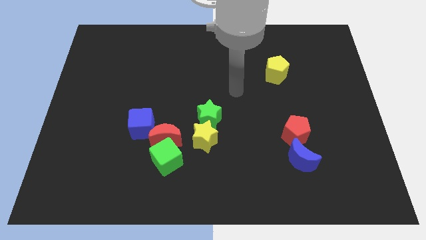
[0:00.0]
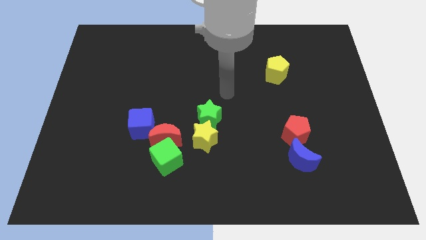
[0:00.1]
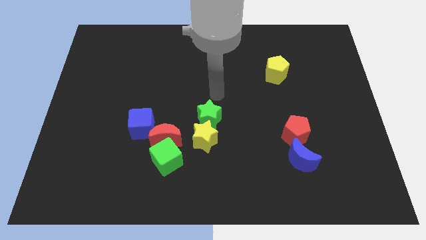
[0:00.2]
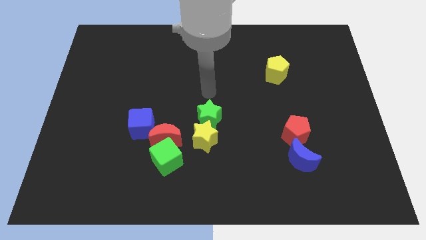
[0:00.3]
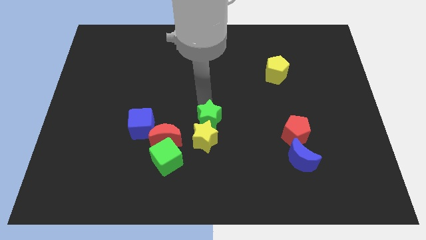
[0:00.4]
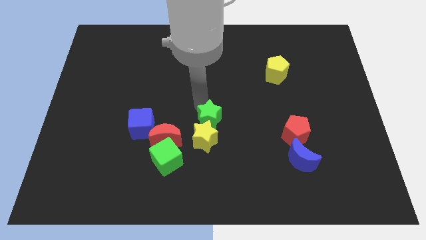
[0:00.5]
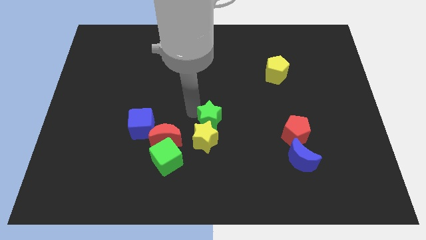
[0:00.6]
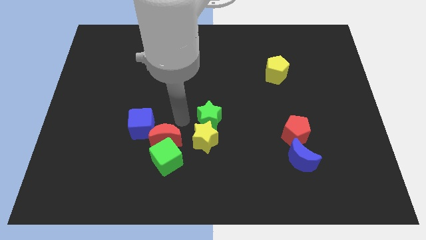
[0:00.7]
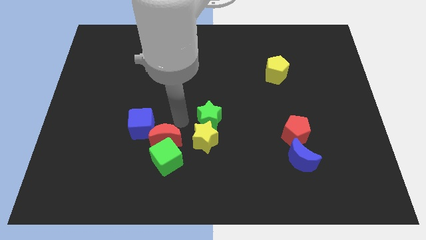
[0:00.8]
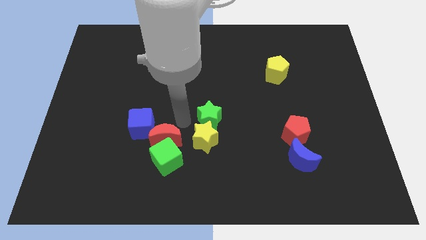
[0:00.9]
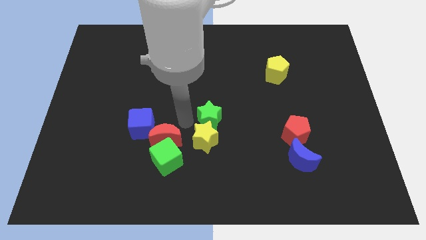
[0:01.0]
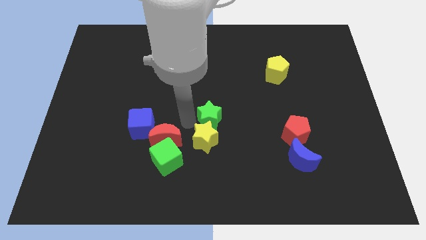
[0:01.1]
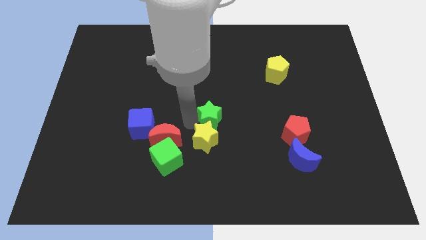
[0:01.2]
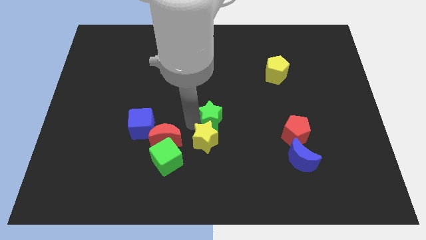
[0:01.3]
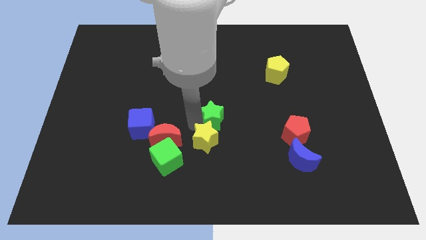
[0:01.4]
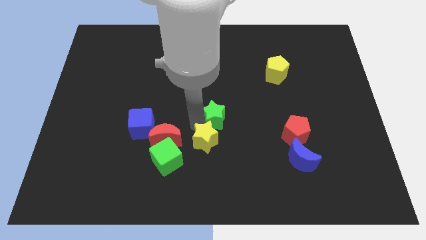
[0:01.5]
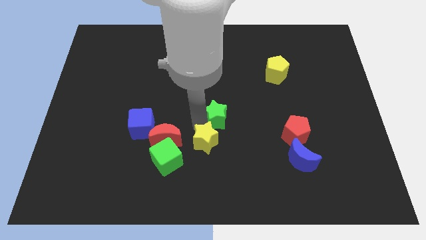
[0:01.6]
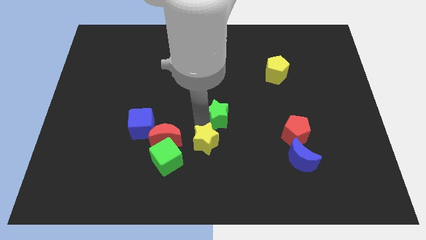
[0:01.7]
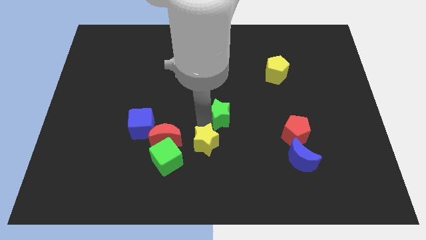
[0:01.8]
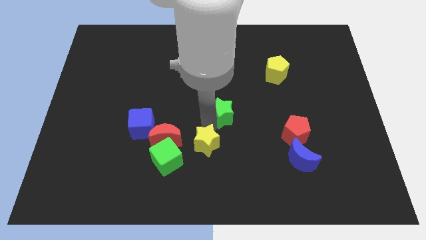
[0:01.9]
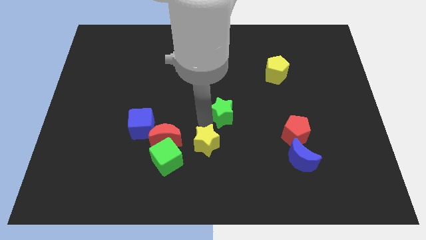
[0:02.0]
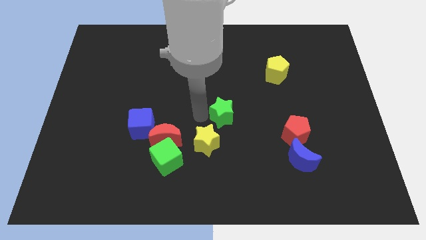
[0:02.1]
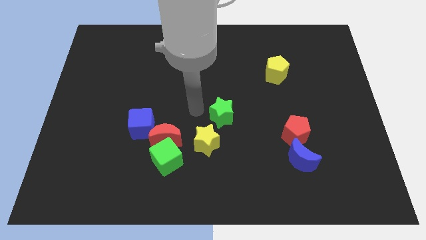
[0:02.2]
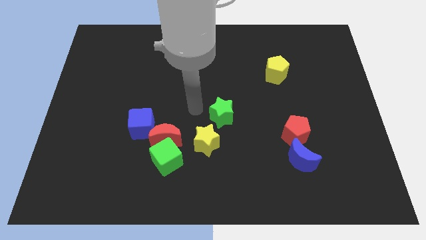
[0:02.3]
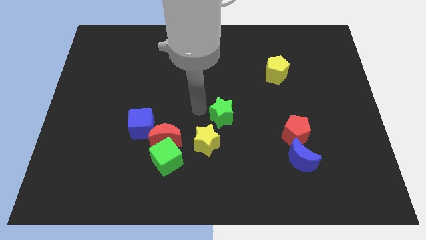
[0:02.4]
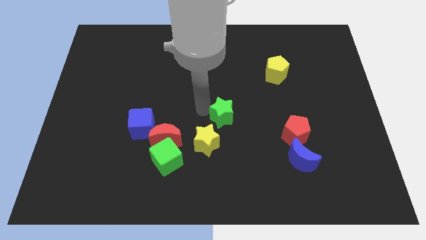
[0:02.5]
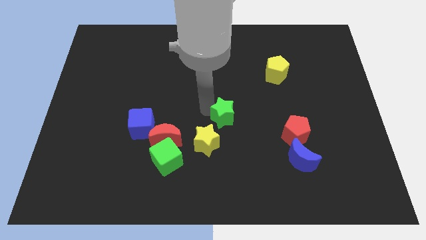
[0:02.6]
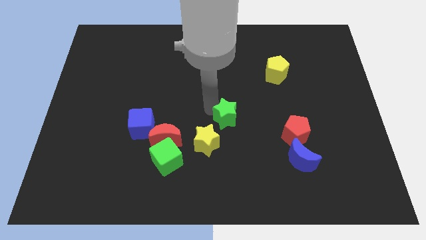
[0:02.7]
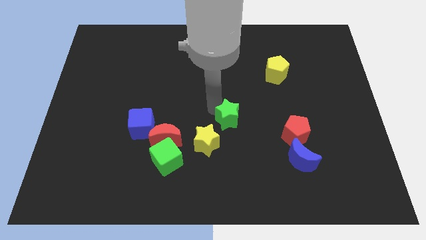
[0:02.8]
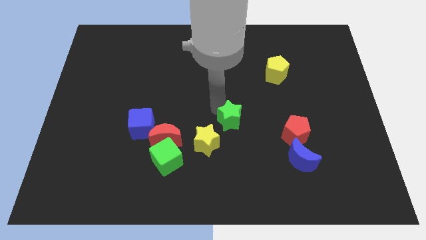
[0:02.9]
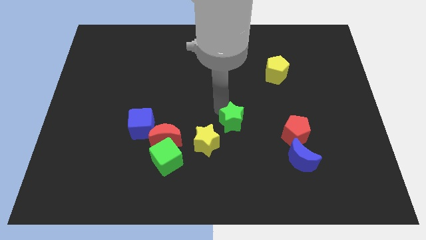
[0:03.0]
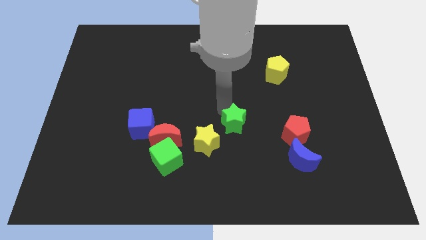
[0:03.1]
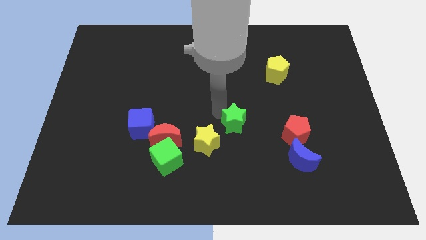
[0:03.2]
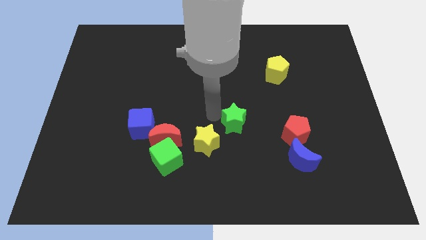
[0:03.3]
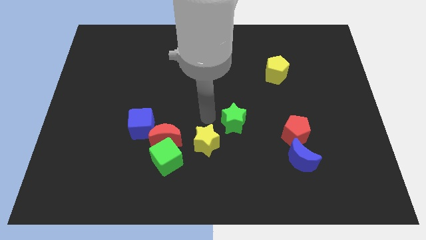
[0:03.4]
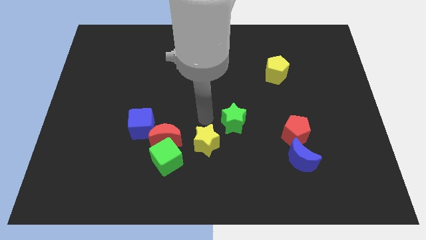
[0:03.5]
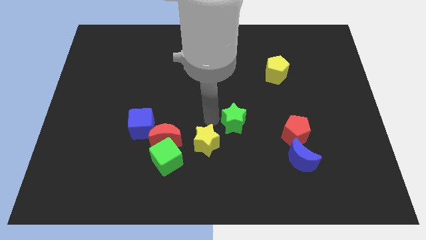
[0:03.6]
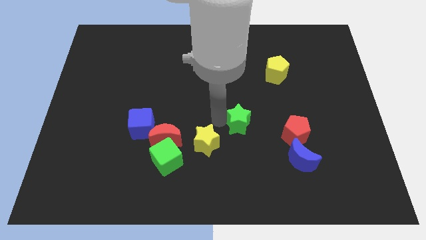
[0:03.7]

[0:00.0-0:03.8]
push the green star a little right

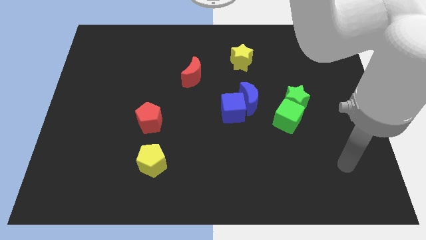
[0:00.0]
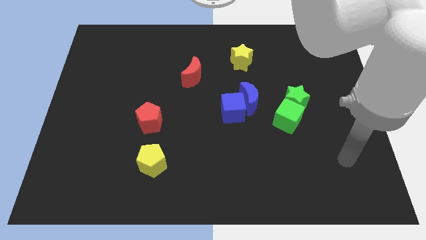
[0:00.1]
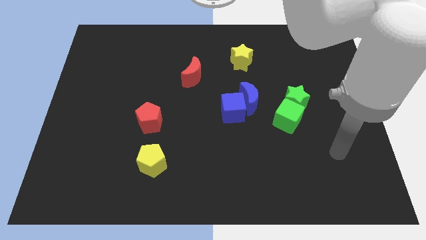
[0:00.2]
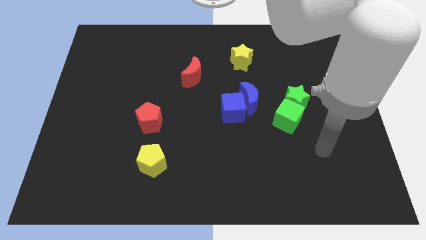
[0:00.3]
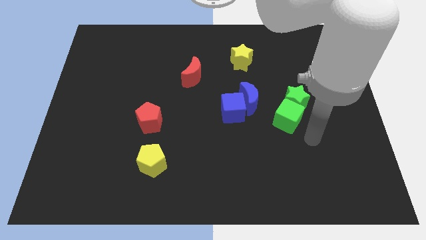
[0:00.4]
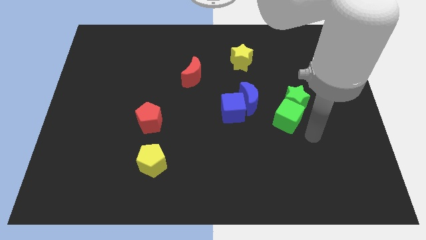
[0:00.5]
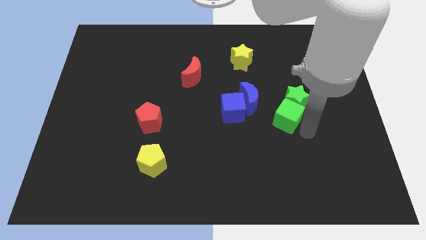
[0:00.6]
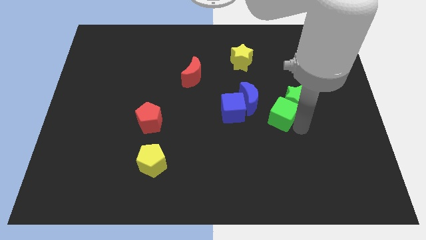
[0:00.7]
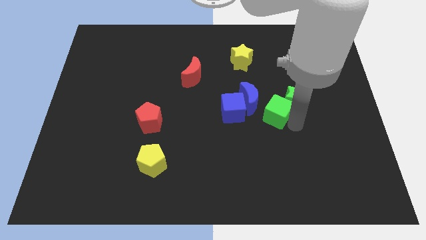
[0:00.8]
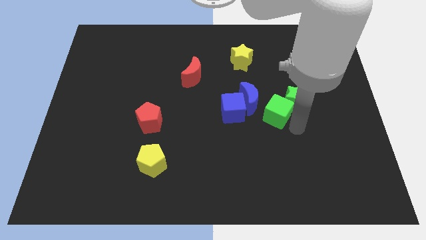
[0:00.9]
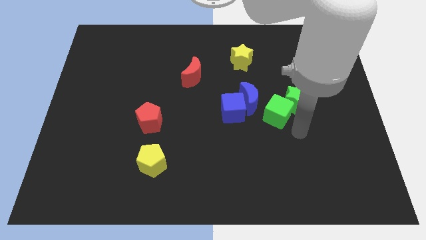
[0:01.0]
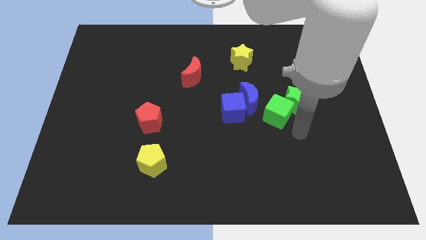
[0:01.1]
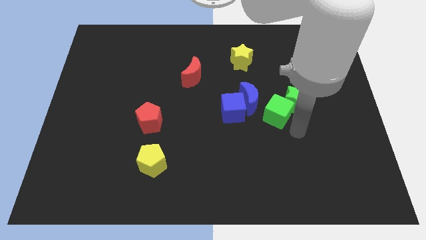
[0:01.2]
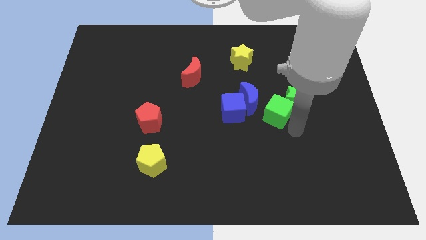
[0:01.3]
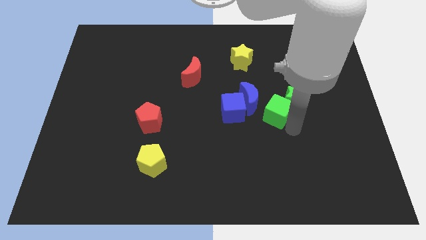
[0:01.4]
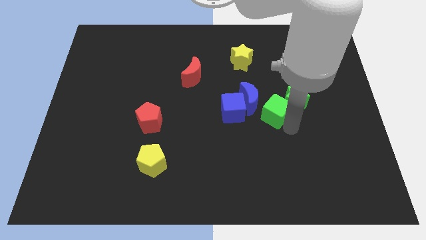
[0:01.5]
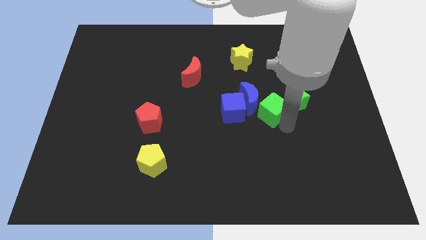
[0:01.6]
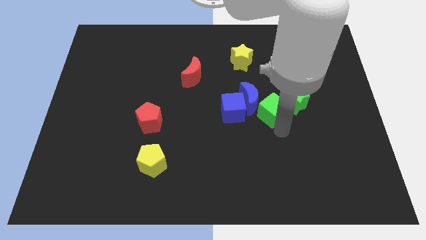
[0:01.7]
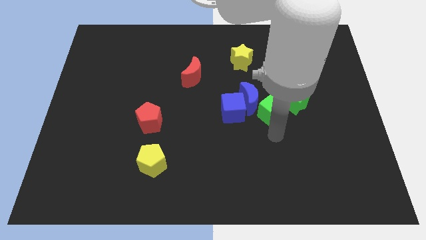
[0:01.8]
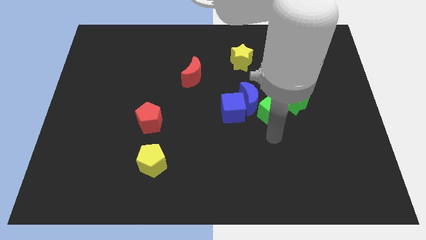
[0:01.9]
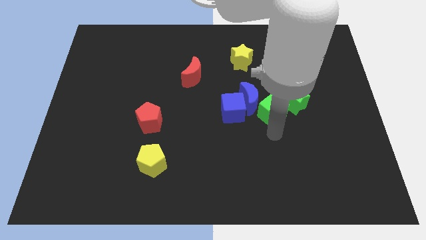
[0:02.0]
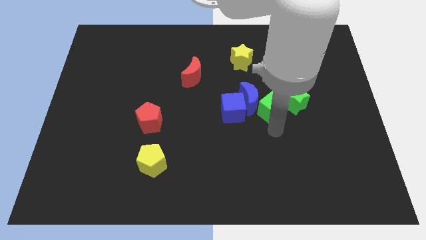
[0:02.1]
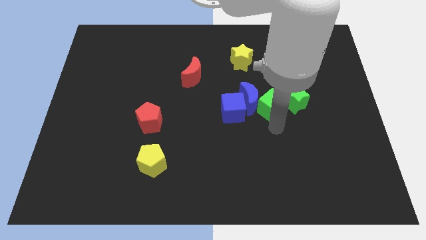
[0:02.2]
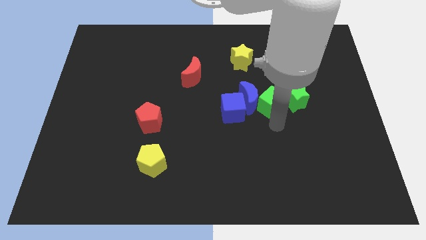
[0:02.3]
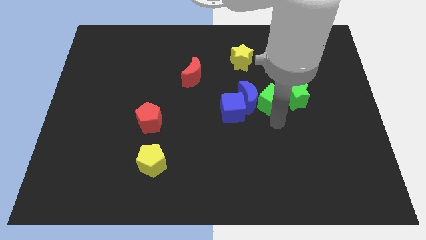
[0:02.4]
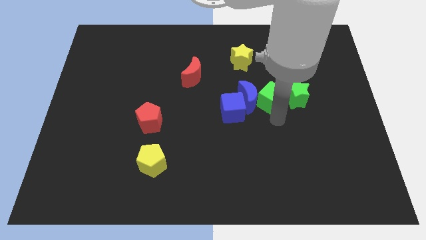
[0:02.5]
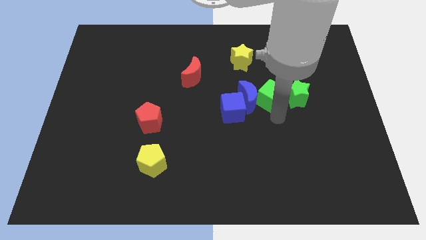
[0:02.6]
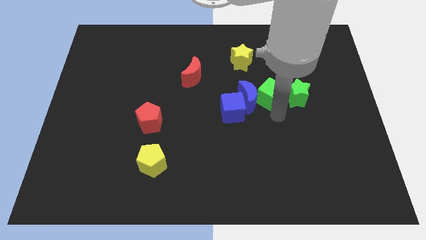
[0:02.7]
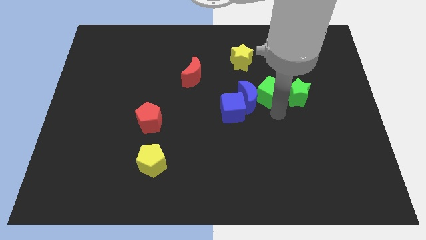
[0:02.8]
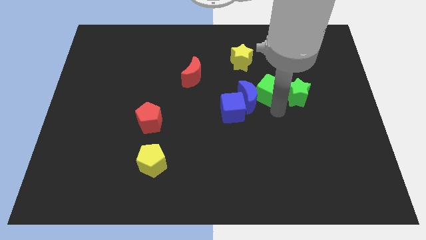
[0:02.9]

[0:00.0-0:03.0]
move the green cube a little bit upwards

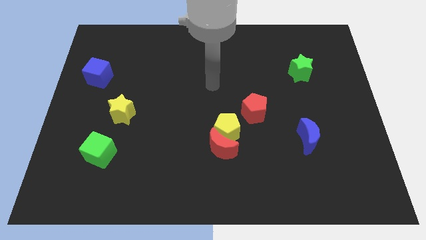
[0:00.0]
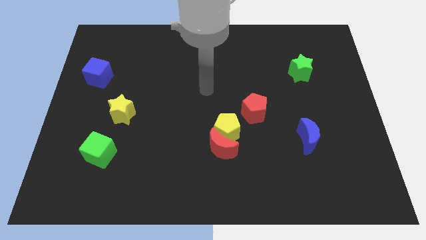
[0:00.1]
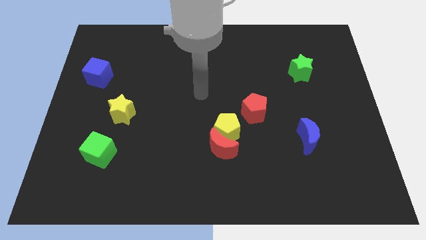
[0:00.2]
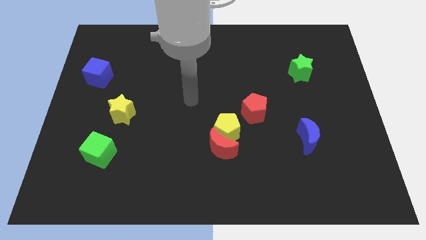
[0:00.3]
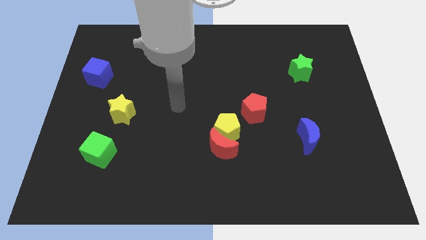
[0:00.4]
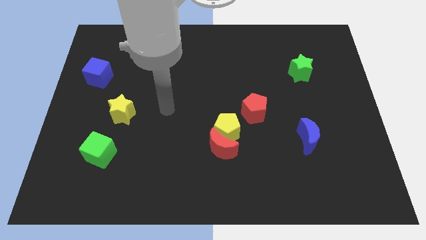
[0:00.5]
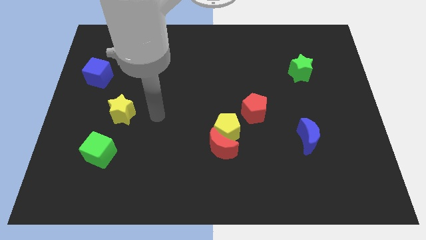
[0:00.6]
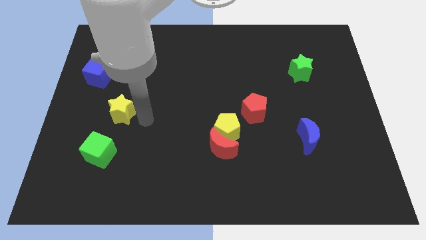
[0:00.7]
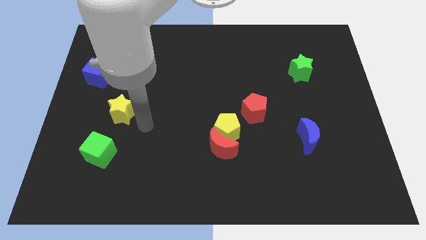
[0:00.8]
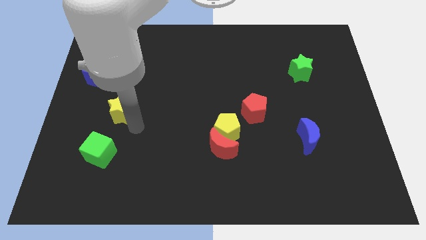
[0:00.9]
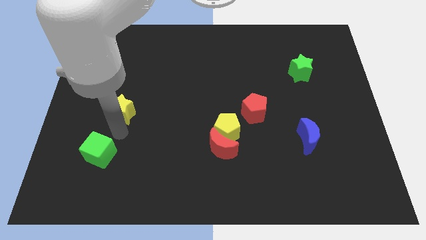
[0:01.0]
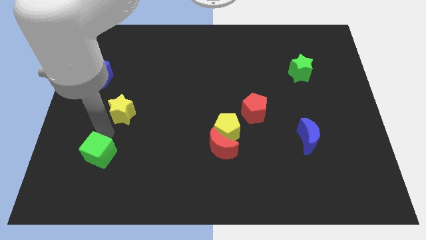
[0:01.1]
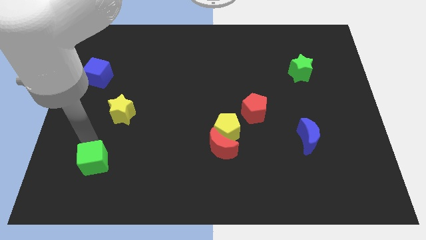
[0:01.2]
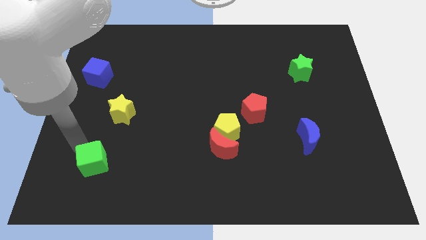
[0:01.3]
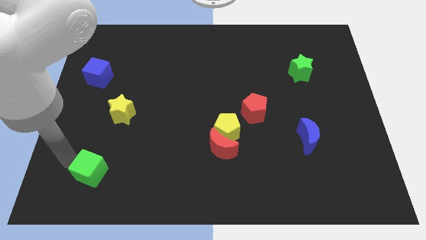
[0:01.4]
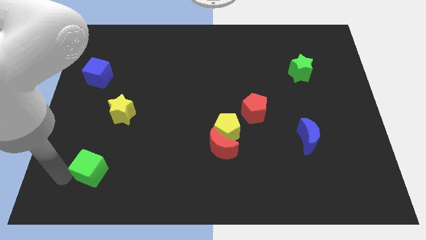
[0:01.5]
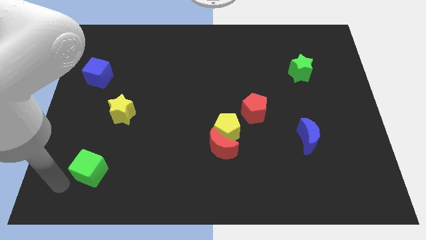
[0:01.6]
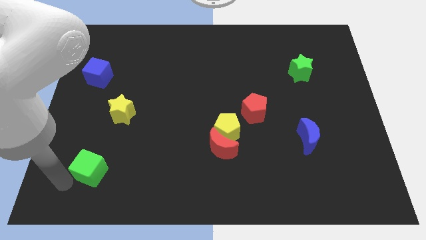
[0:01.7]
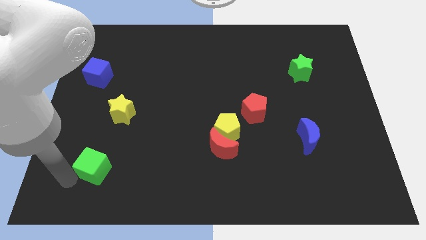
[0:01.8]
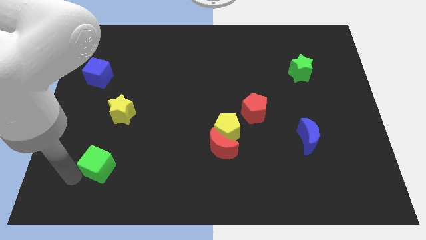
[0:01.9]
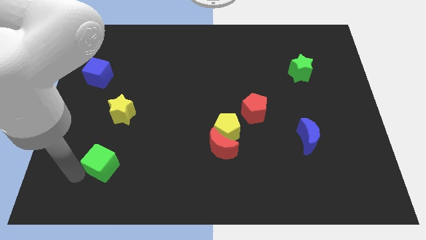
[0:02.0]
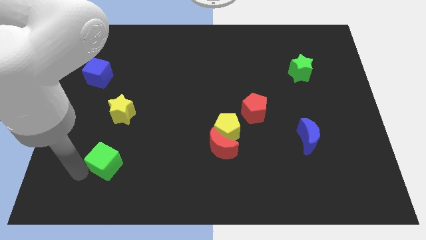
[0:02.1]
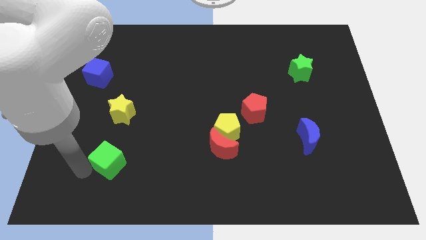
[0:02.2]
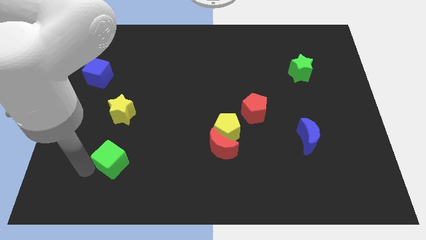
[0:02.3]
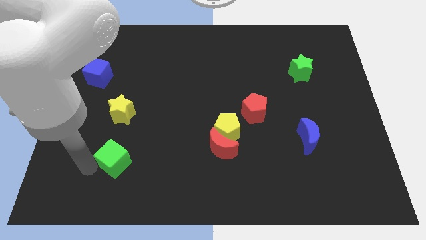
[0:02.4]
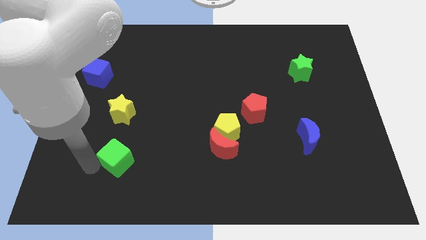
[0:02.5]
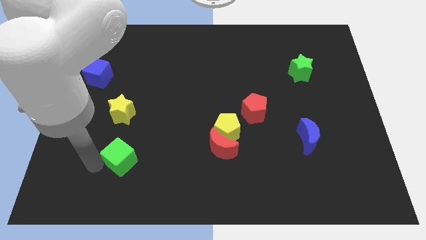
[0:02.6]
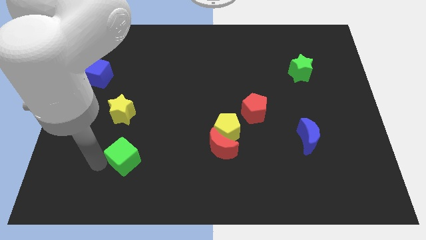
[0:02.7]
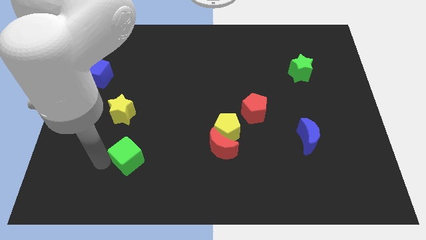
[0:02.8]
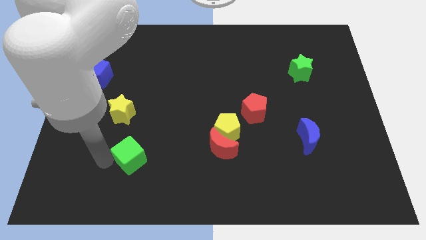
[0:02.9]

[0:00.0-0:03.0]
move the green cube to the right a bit
